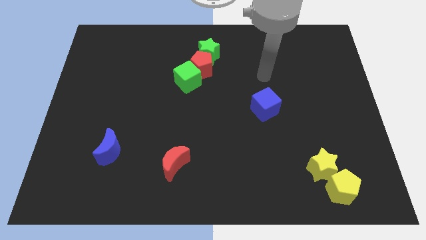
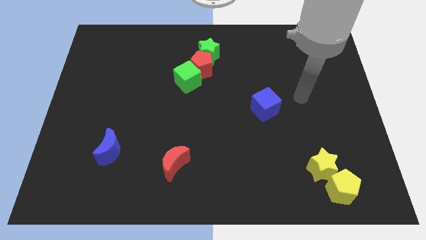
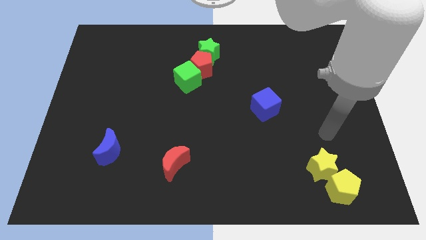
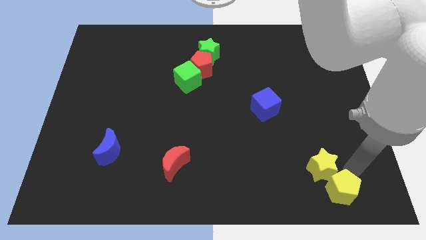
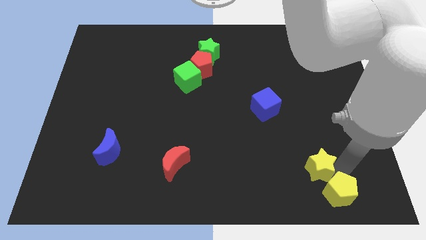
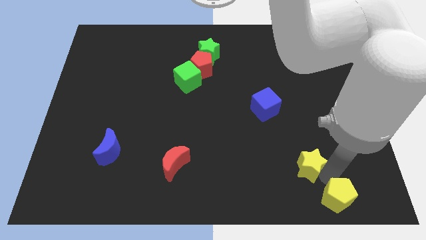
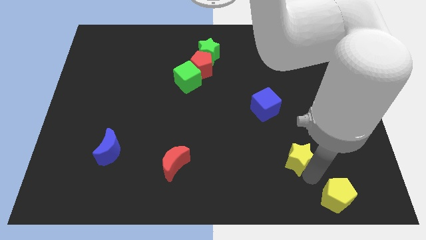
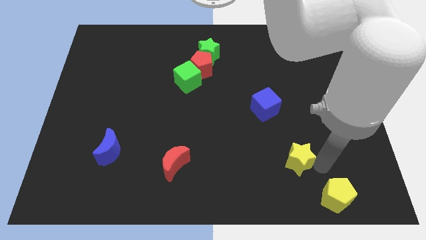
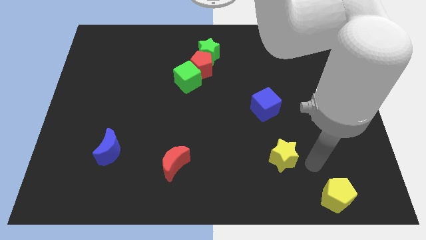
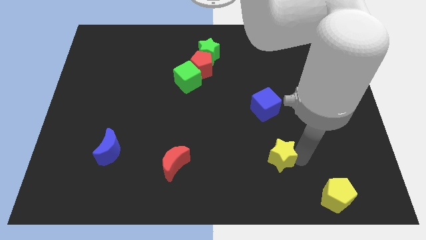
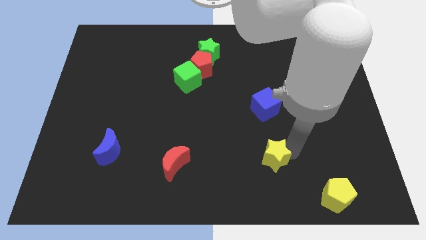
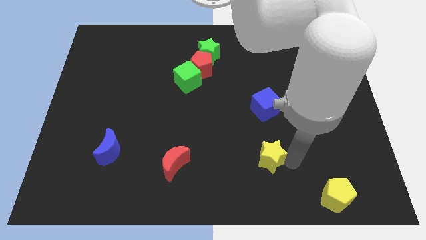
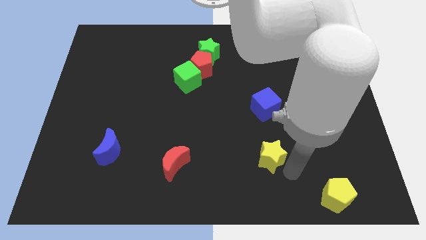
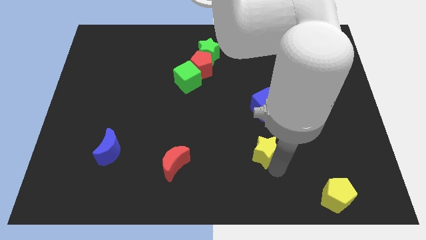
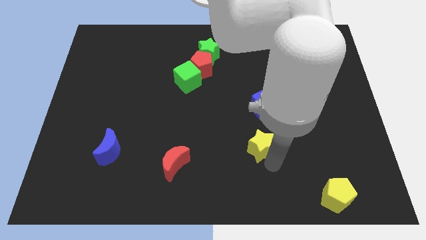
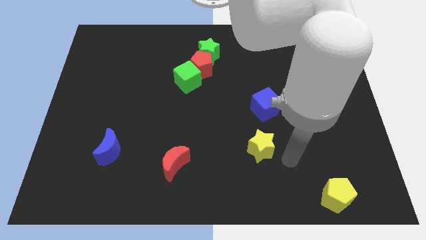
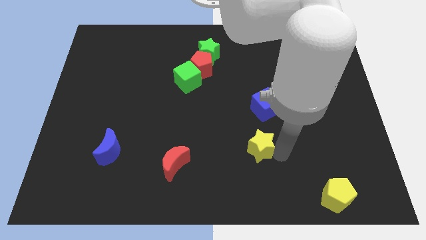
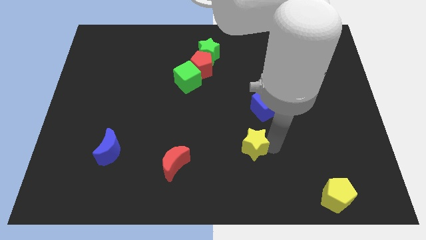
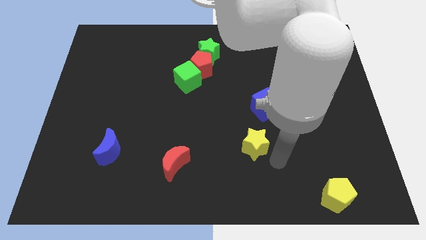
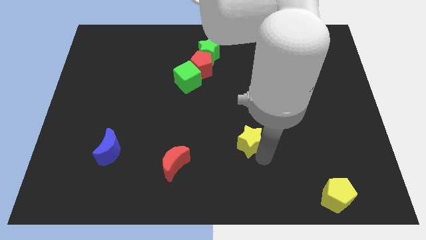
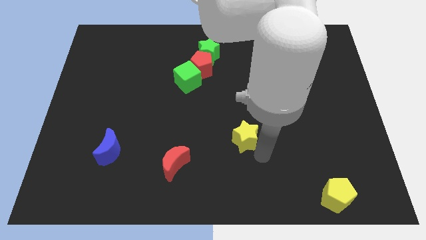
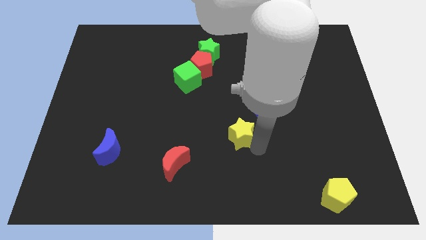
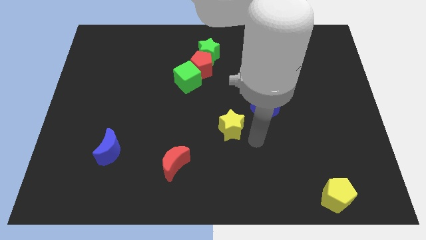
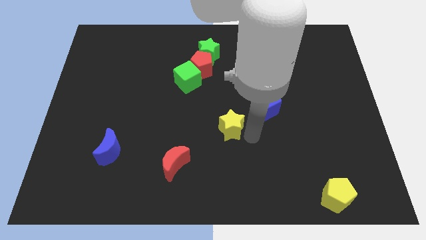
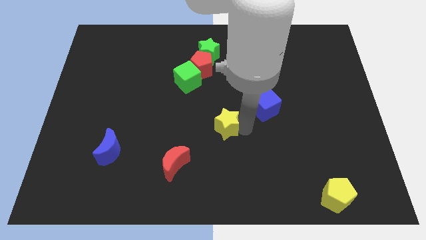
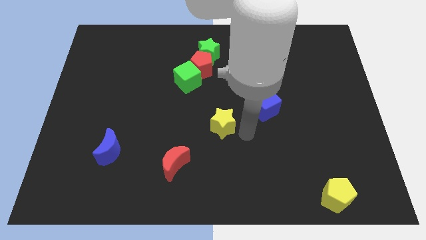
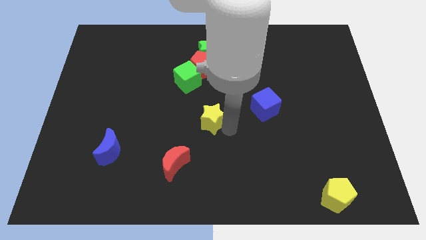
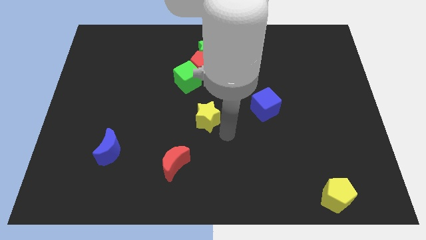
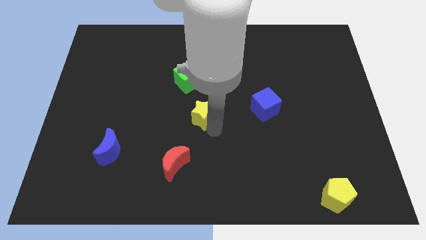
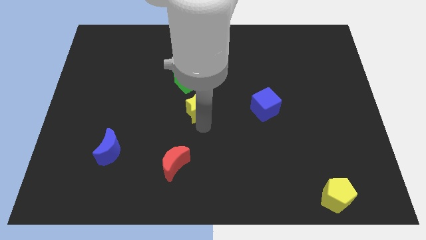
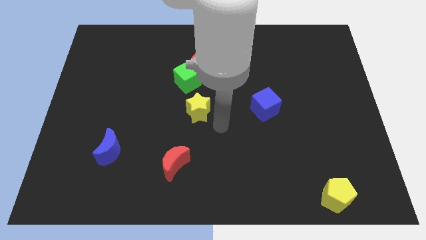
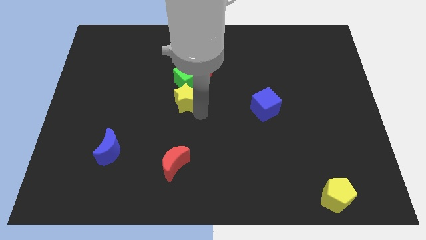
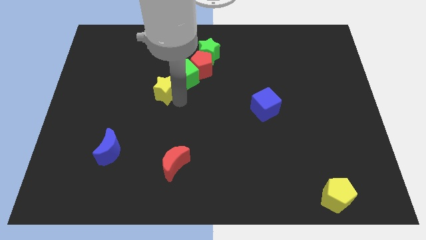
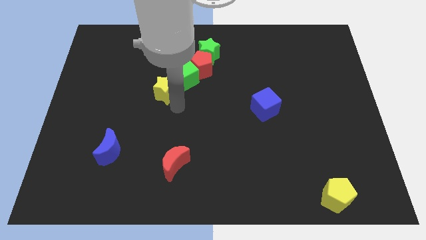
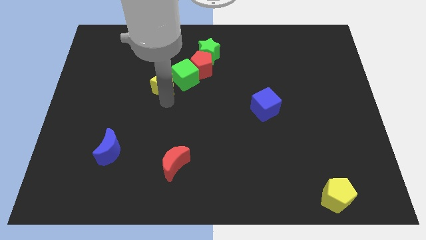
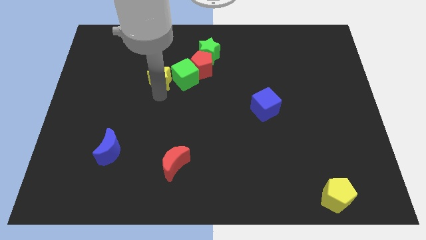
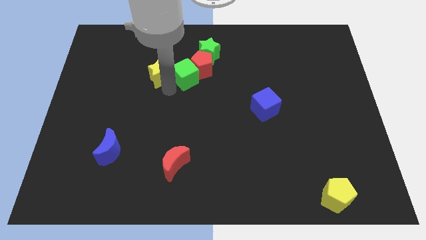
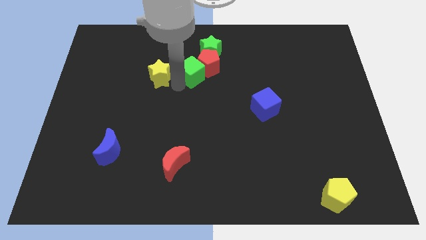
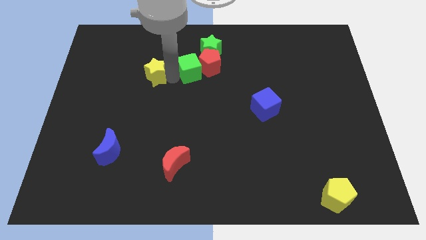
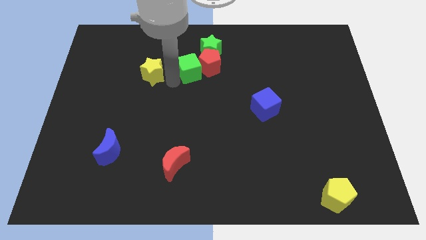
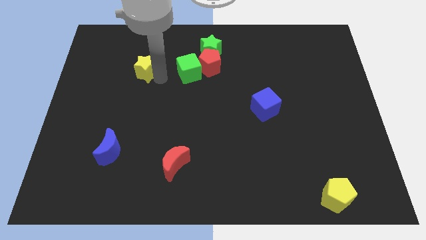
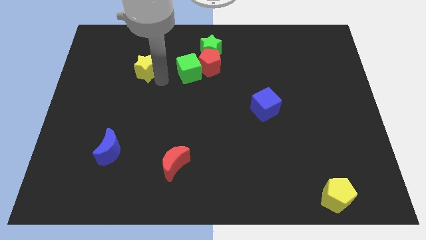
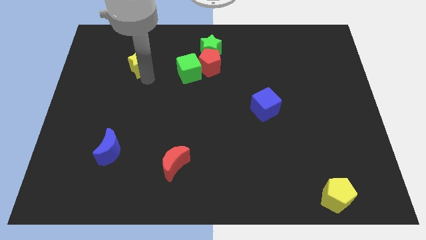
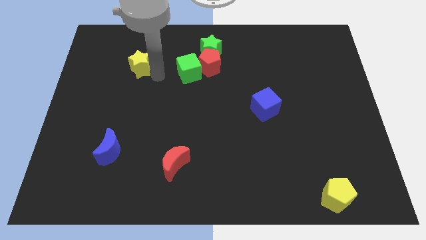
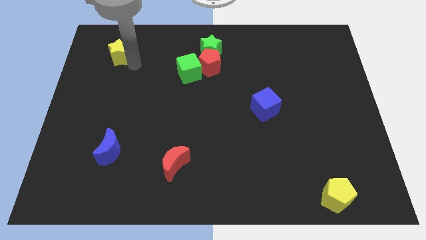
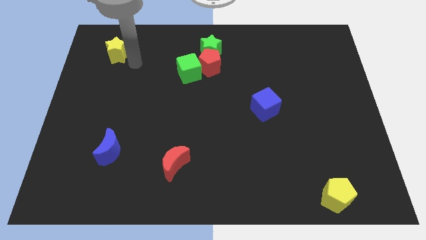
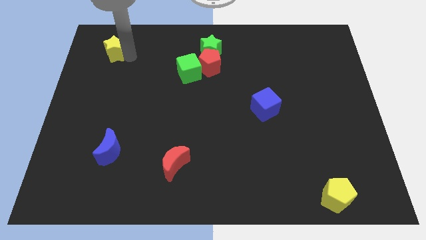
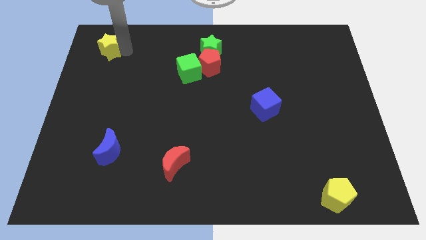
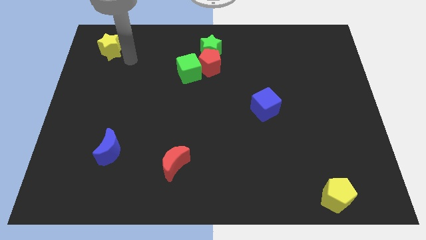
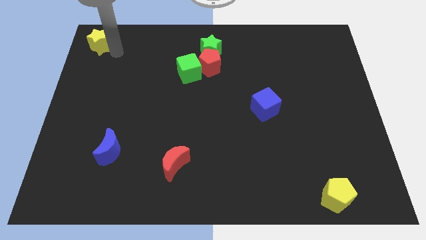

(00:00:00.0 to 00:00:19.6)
slide the yellow star to the top left corner

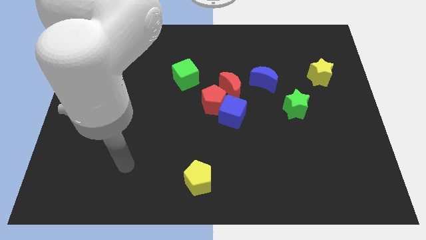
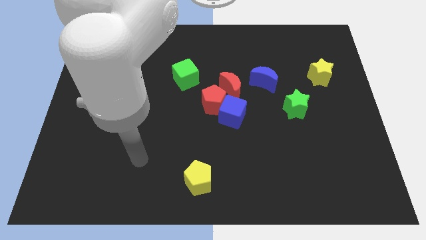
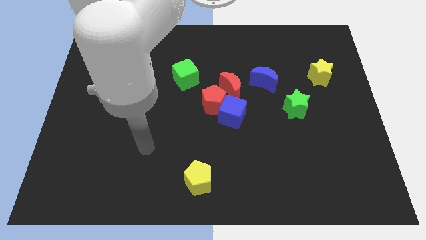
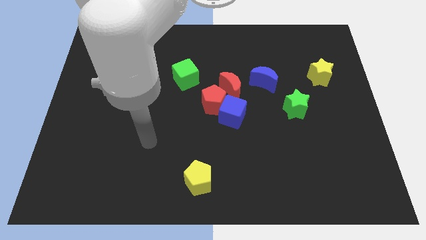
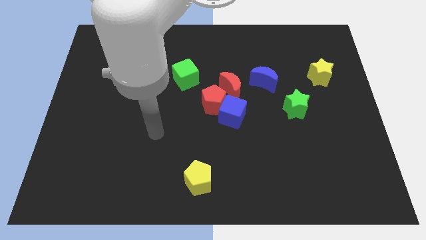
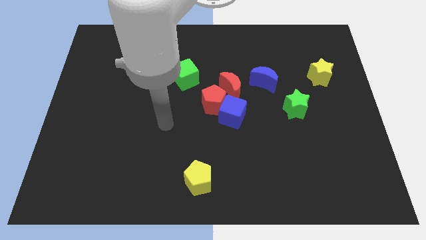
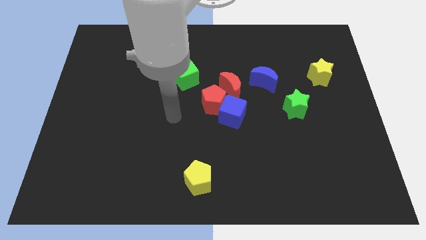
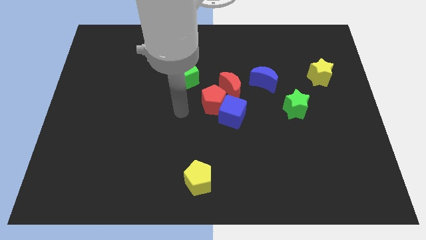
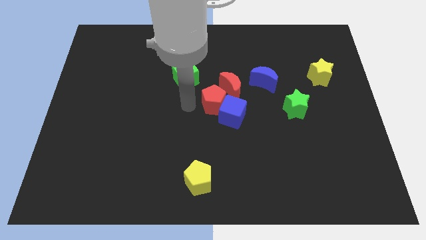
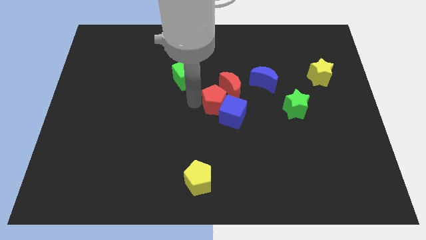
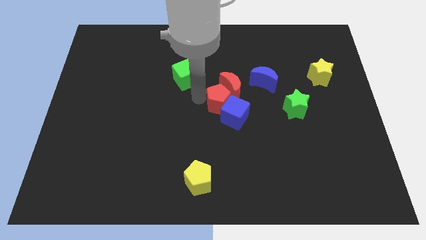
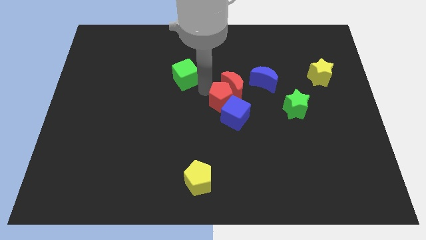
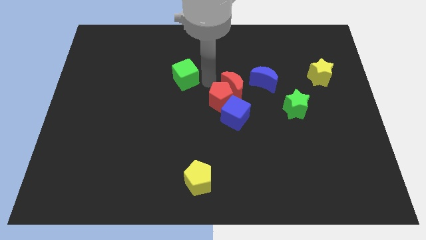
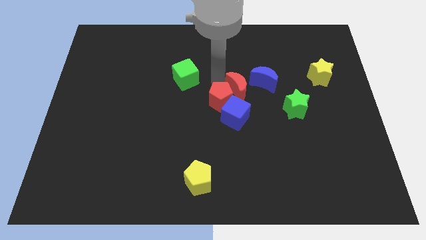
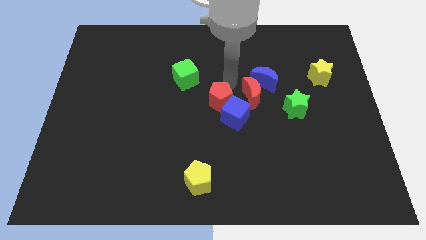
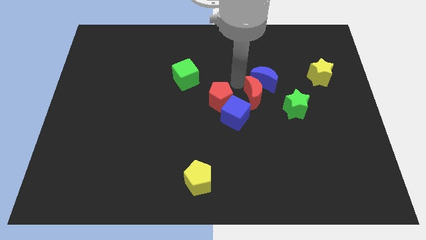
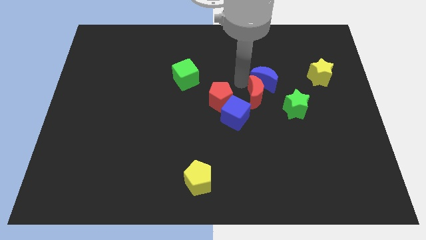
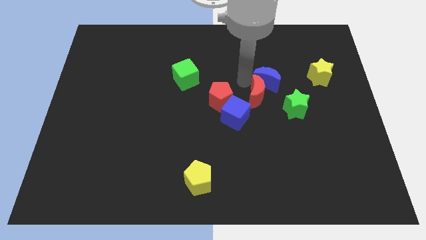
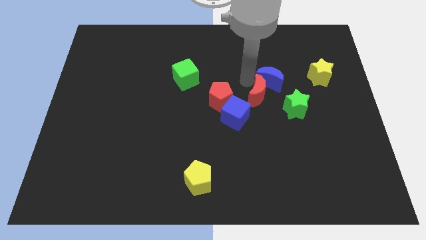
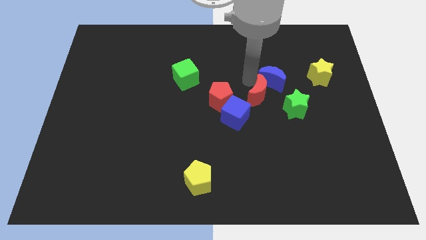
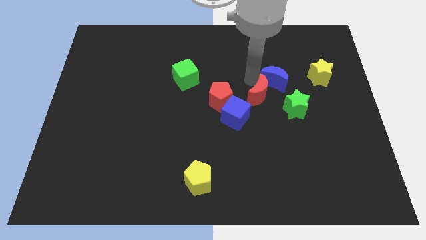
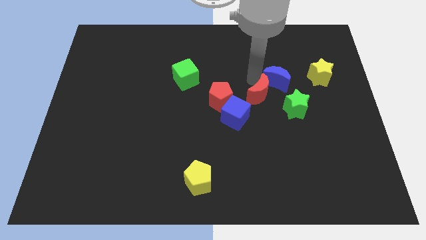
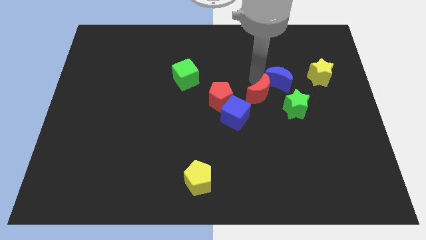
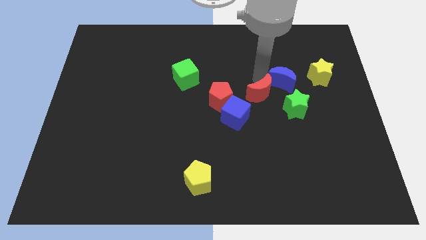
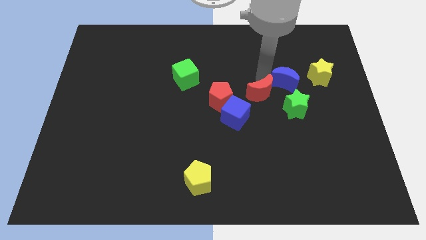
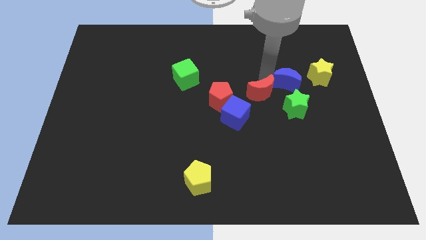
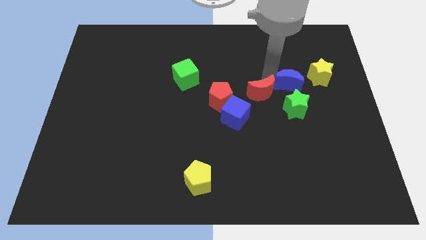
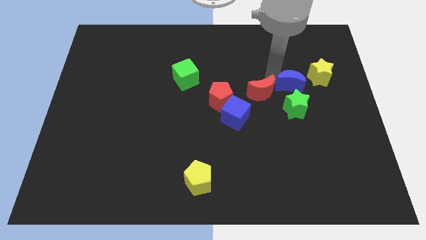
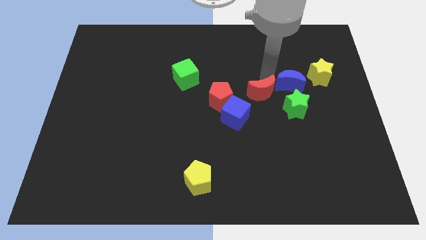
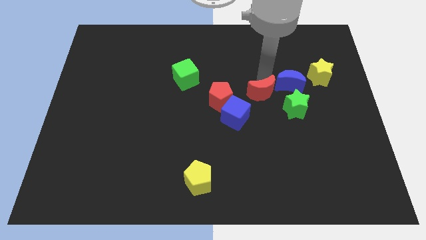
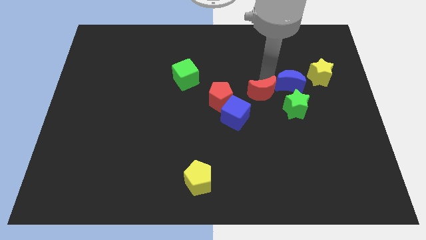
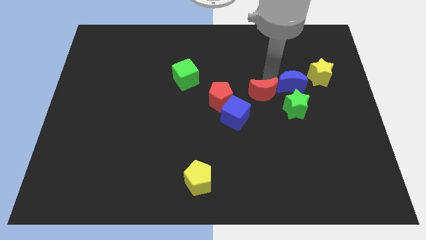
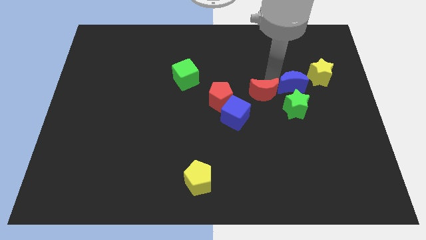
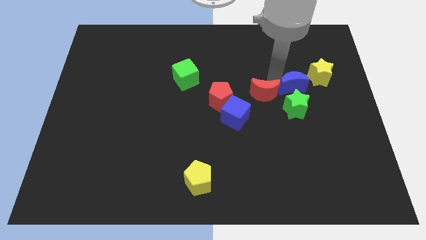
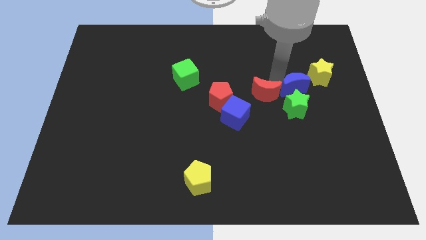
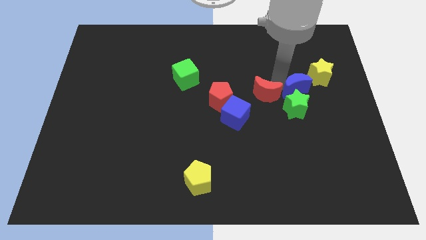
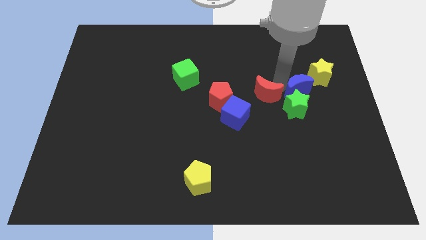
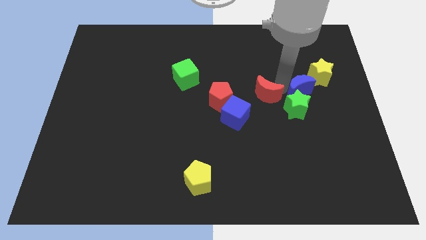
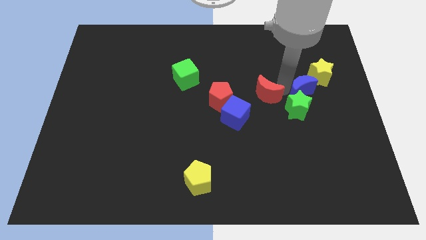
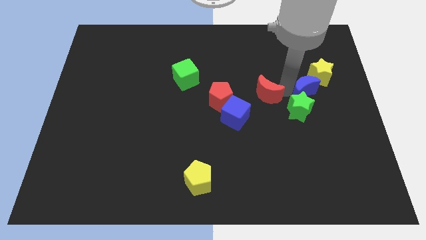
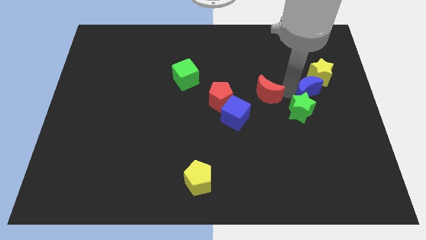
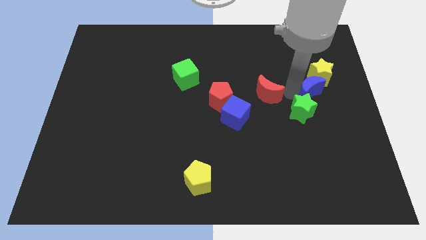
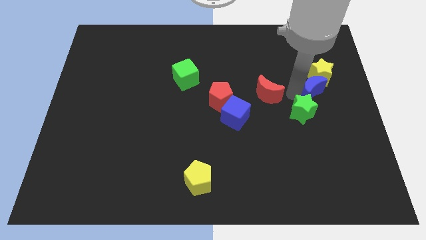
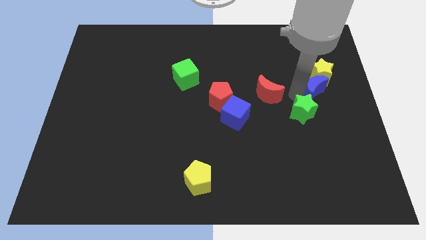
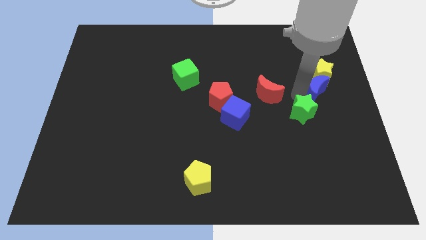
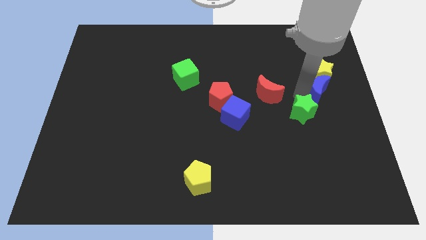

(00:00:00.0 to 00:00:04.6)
slide the blue moon to the center right
